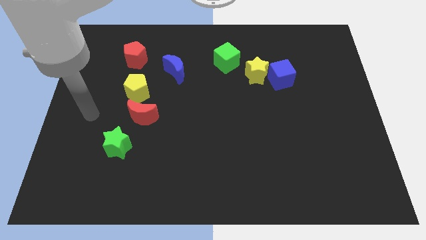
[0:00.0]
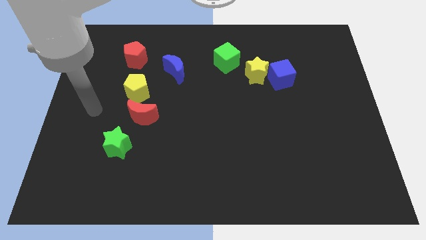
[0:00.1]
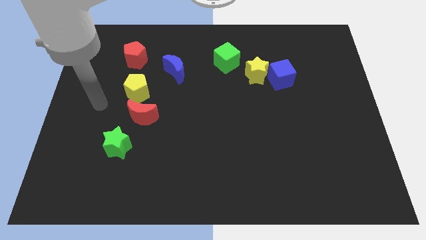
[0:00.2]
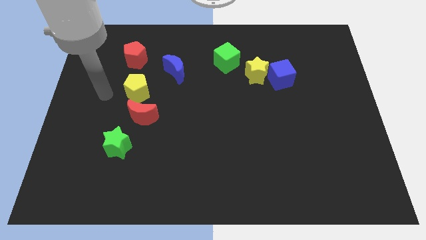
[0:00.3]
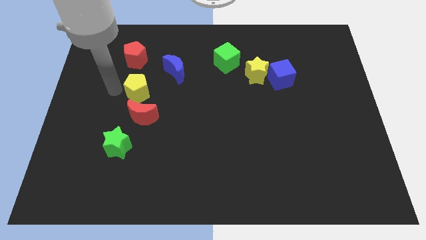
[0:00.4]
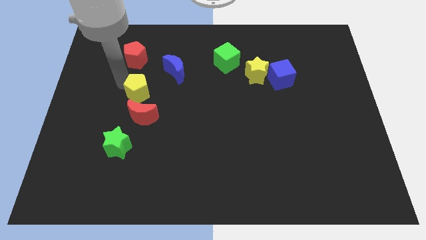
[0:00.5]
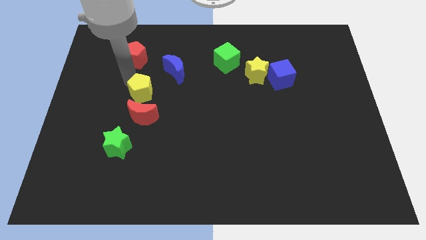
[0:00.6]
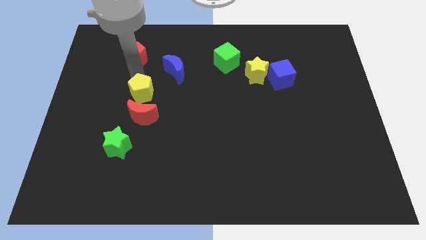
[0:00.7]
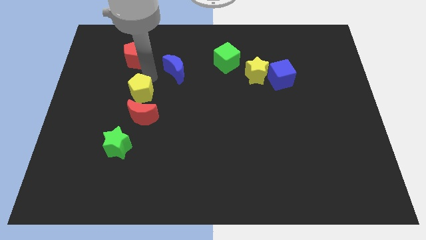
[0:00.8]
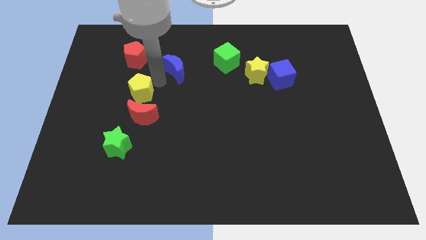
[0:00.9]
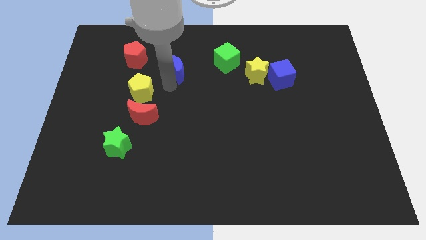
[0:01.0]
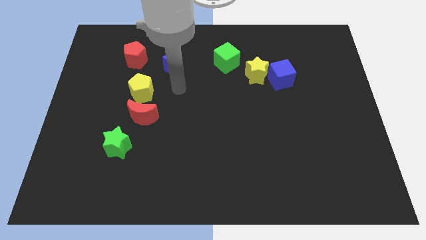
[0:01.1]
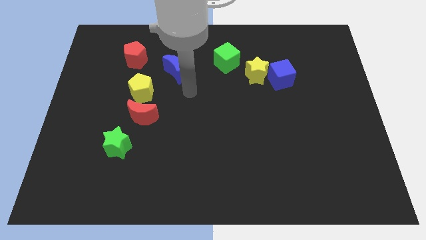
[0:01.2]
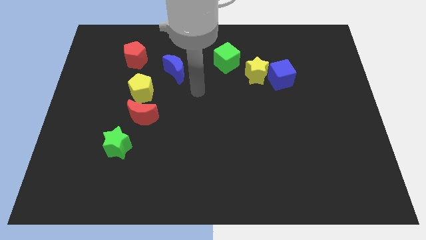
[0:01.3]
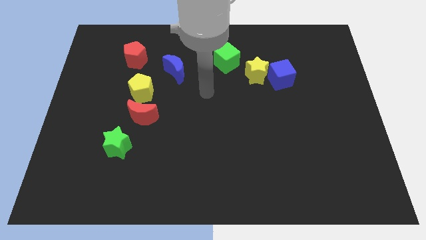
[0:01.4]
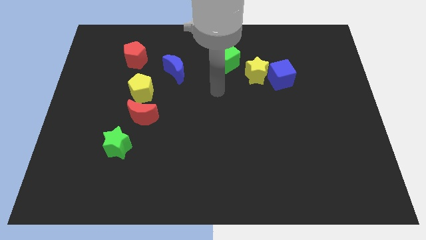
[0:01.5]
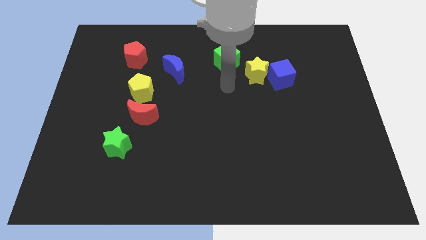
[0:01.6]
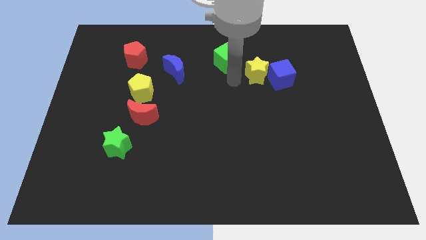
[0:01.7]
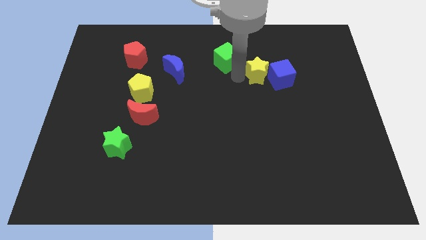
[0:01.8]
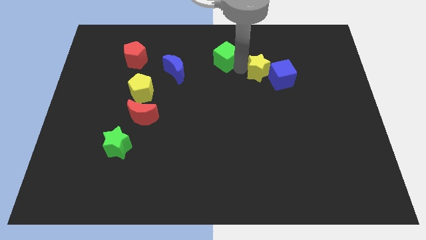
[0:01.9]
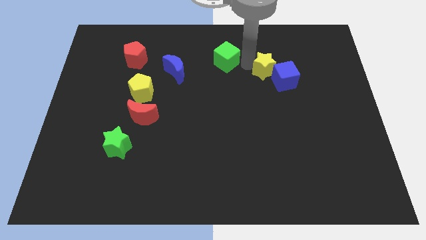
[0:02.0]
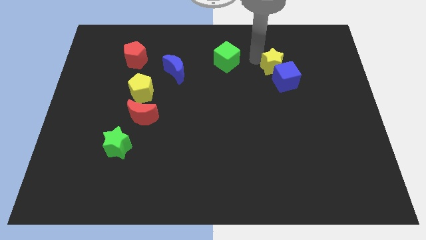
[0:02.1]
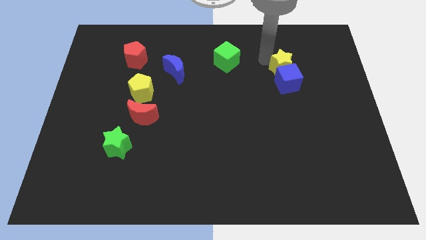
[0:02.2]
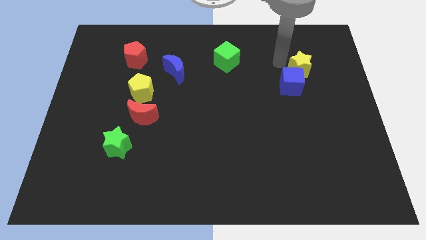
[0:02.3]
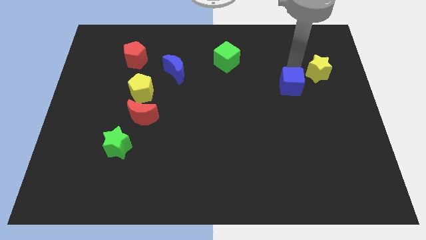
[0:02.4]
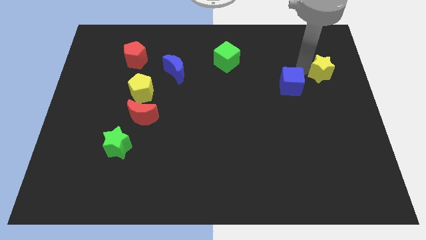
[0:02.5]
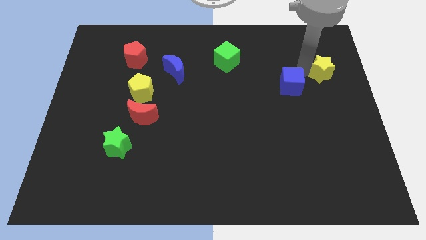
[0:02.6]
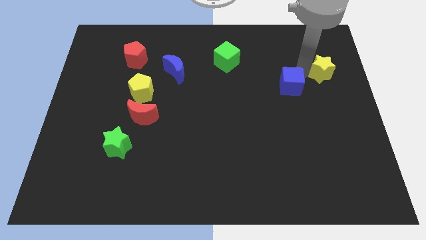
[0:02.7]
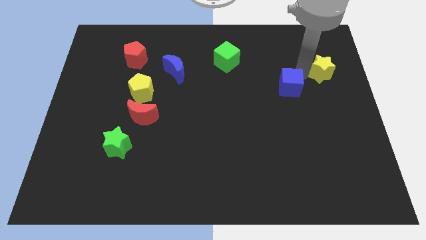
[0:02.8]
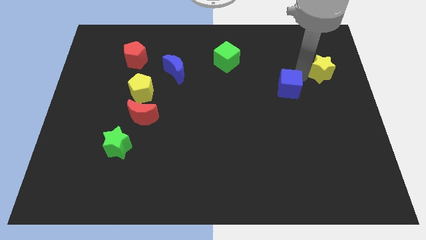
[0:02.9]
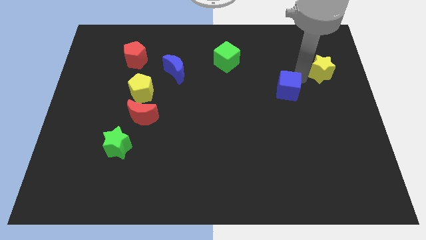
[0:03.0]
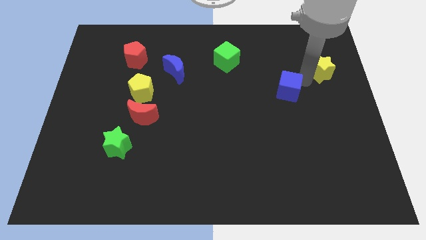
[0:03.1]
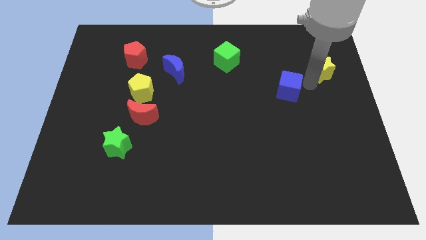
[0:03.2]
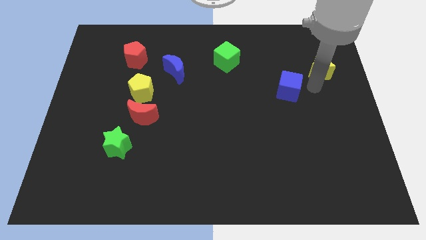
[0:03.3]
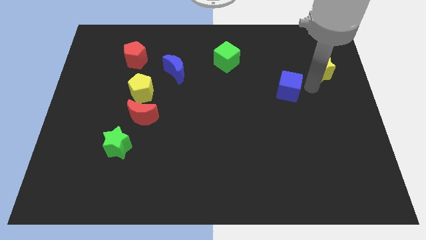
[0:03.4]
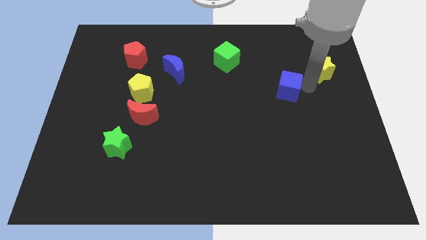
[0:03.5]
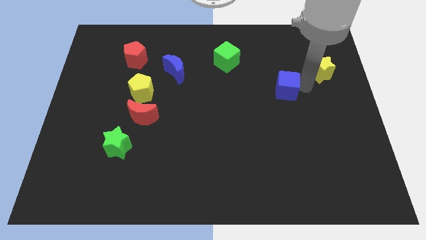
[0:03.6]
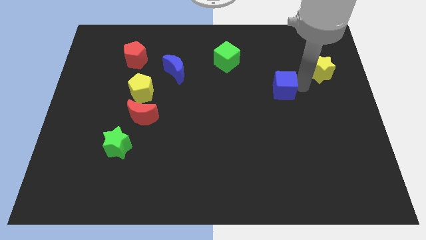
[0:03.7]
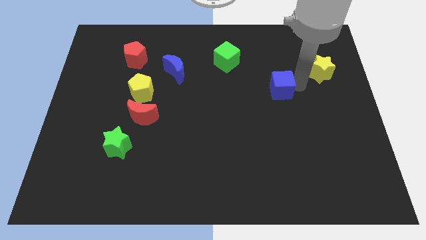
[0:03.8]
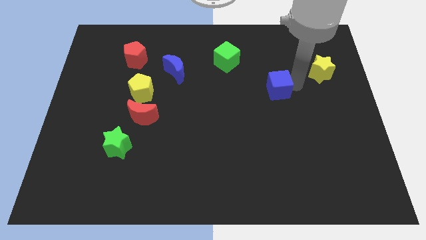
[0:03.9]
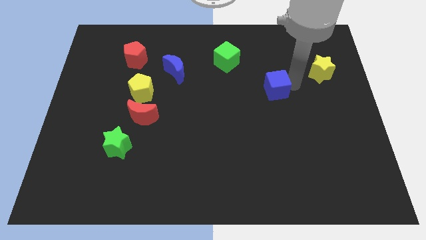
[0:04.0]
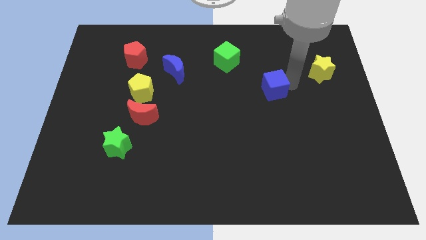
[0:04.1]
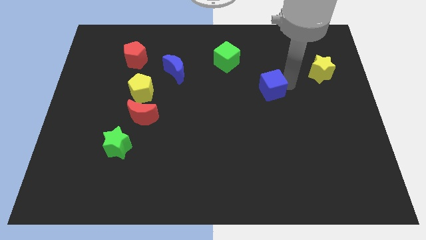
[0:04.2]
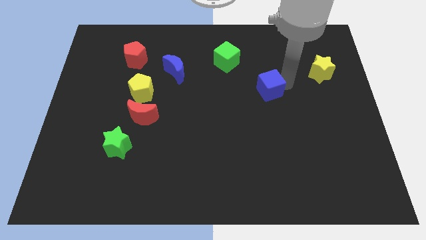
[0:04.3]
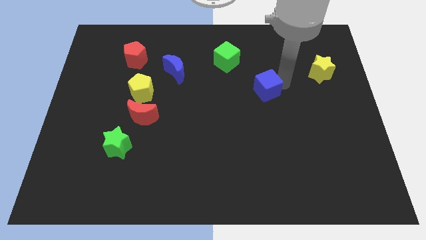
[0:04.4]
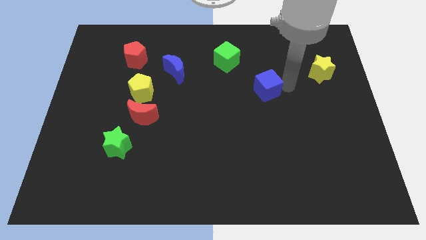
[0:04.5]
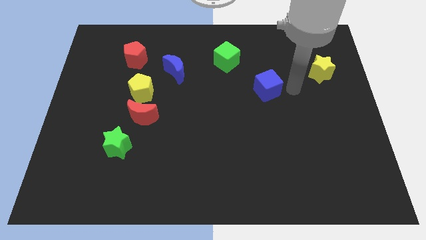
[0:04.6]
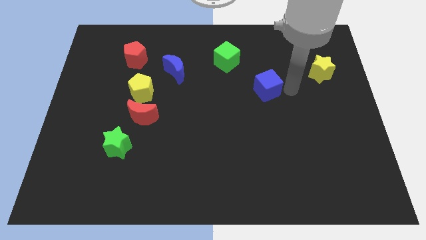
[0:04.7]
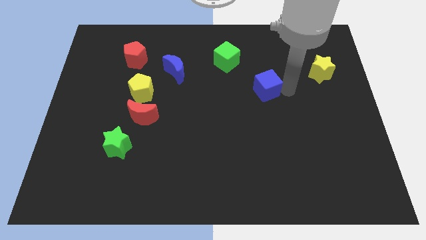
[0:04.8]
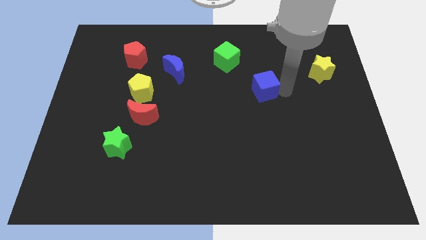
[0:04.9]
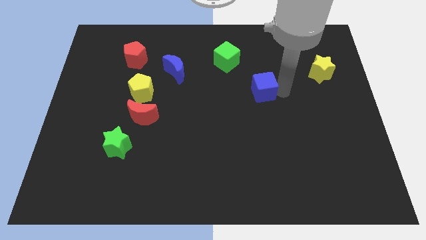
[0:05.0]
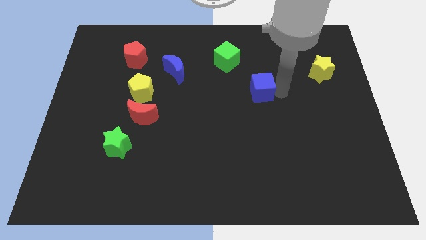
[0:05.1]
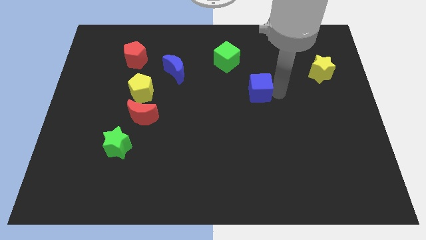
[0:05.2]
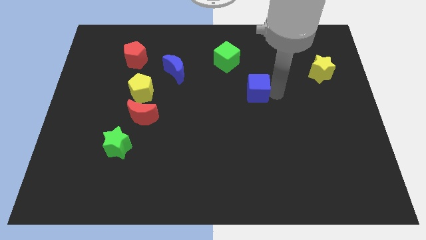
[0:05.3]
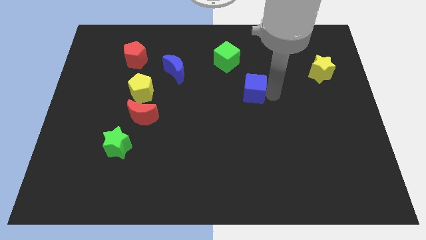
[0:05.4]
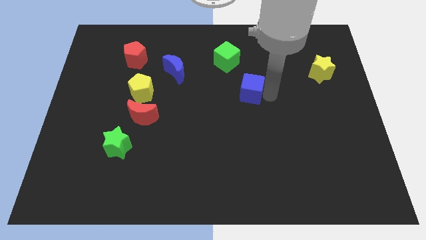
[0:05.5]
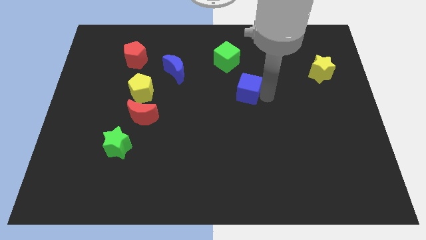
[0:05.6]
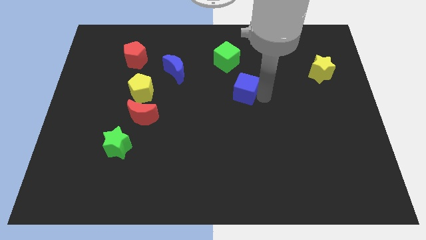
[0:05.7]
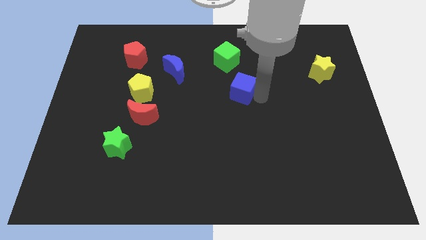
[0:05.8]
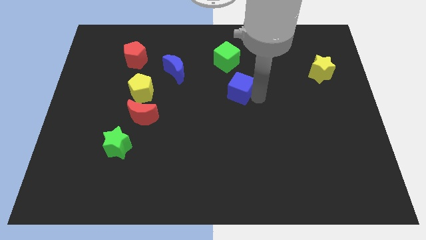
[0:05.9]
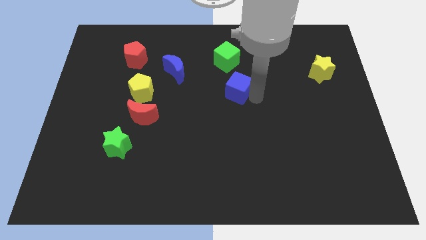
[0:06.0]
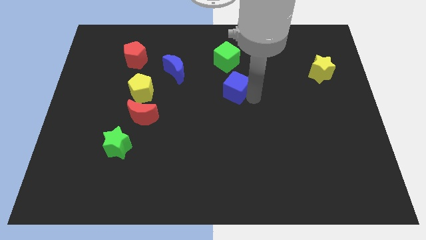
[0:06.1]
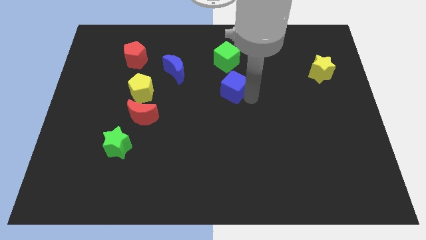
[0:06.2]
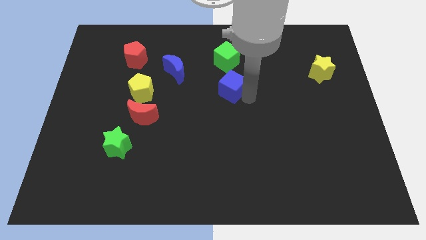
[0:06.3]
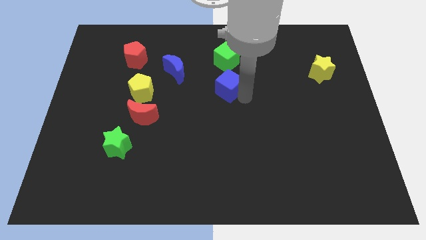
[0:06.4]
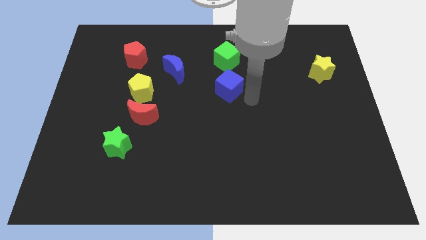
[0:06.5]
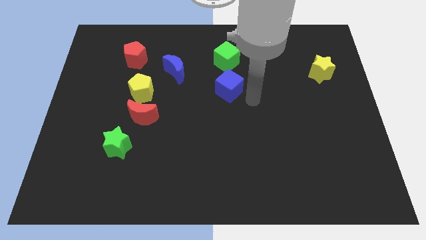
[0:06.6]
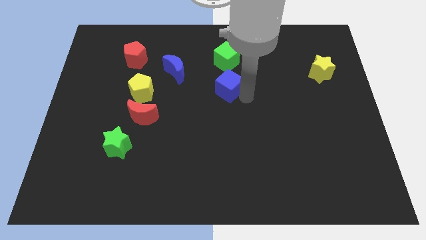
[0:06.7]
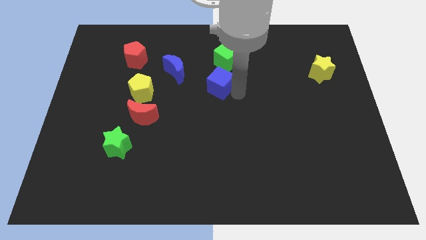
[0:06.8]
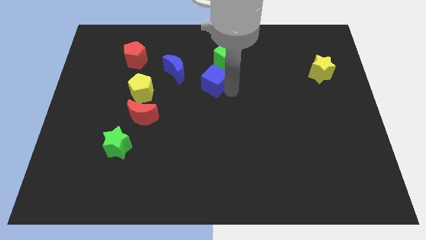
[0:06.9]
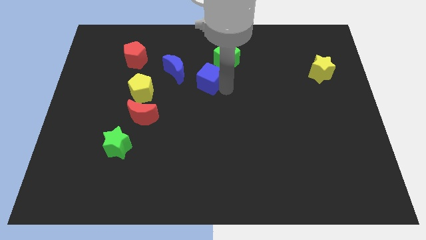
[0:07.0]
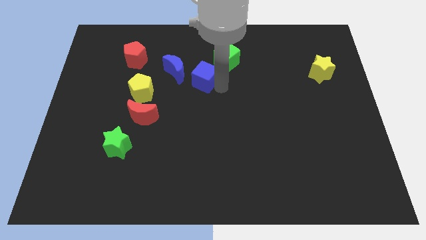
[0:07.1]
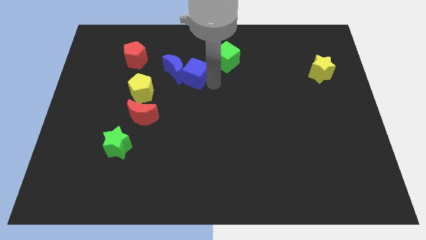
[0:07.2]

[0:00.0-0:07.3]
push the blue cube next to the blue moon
